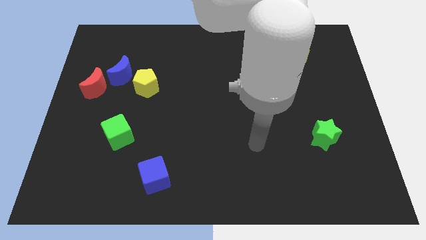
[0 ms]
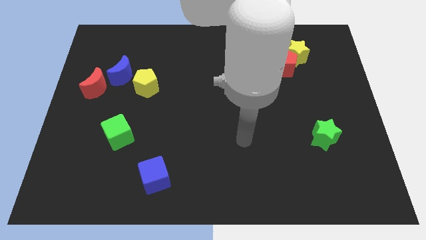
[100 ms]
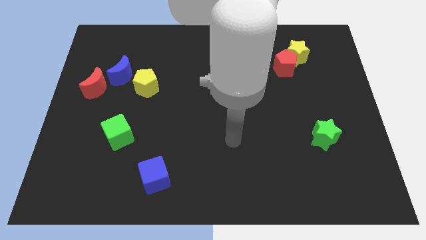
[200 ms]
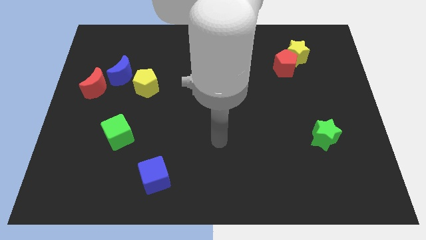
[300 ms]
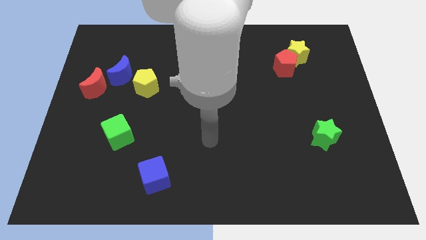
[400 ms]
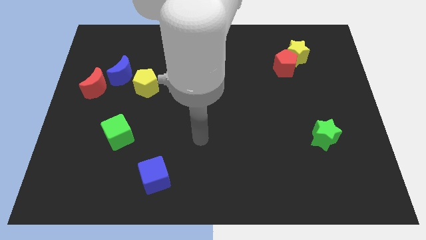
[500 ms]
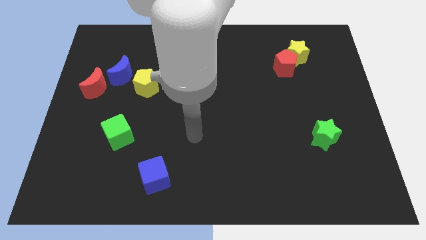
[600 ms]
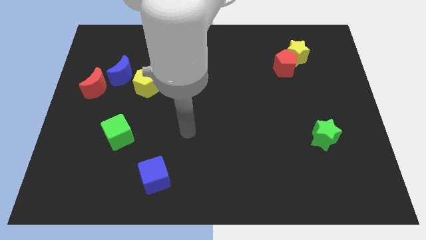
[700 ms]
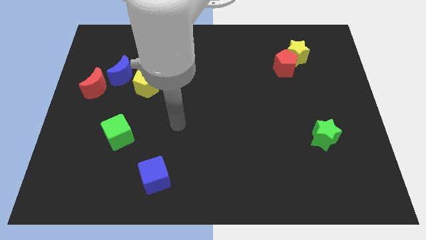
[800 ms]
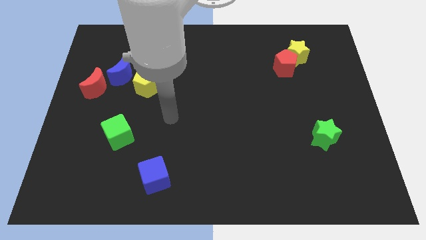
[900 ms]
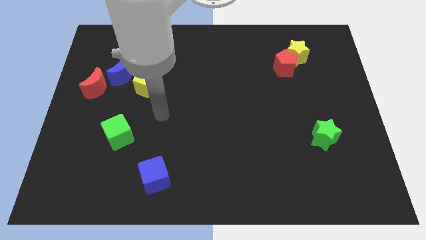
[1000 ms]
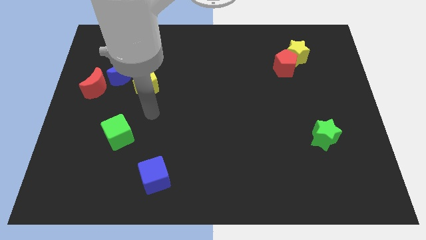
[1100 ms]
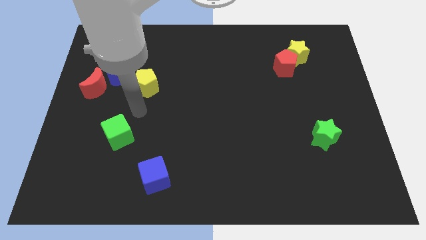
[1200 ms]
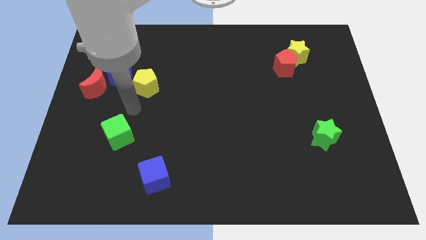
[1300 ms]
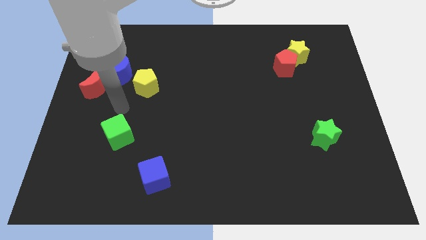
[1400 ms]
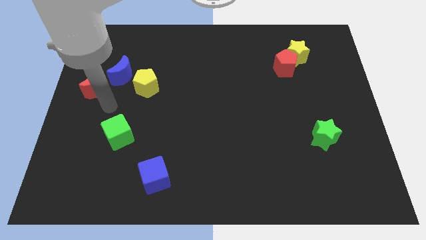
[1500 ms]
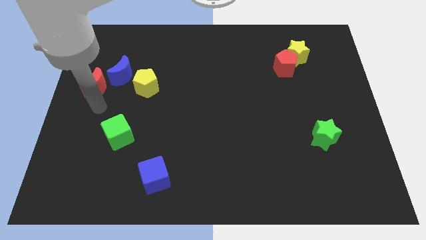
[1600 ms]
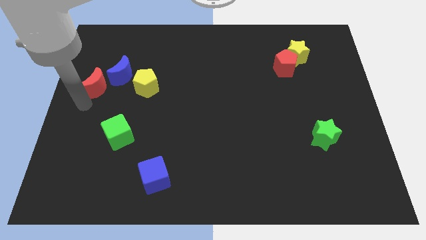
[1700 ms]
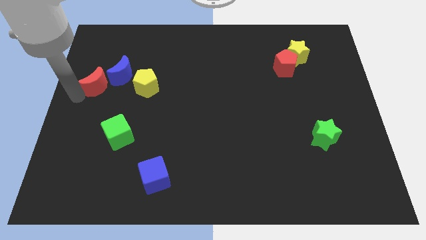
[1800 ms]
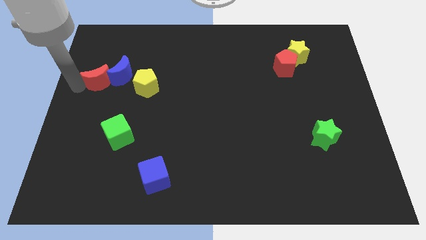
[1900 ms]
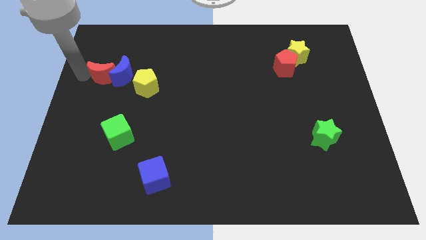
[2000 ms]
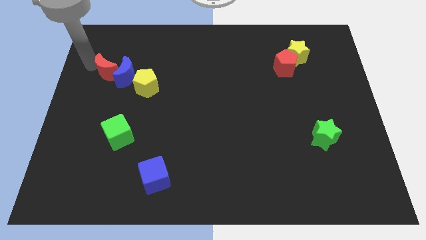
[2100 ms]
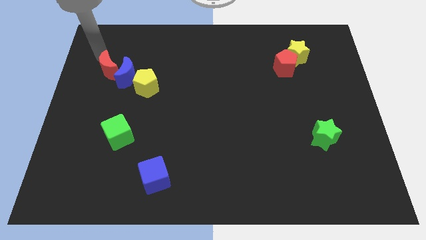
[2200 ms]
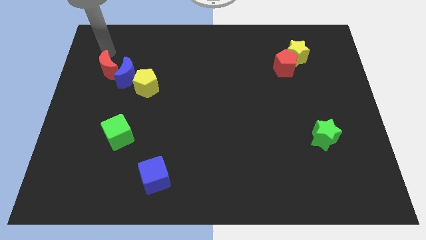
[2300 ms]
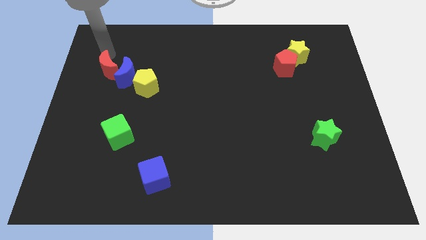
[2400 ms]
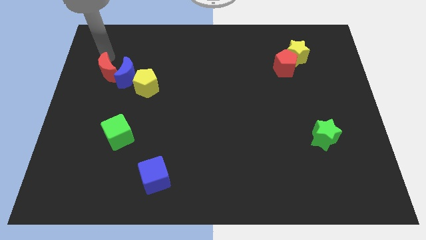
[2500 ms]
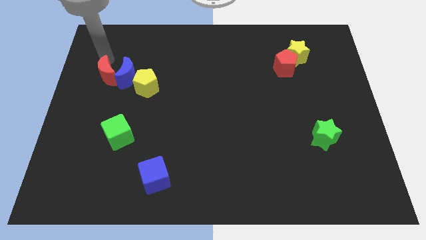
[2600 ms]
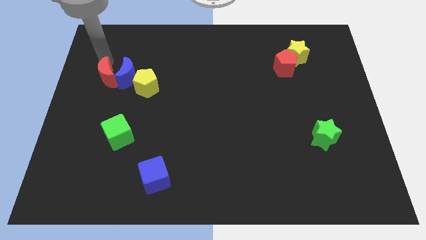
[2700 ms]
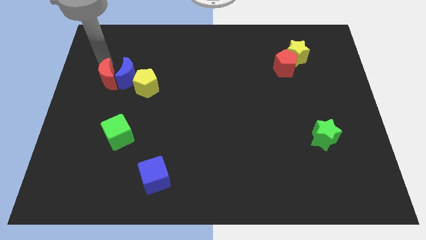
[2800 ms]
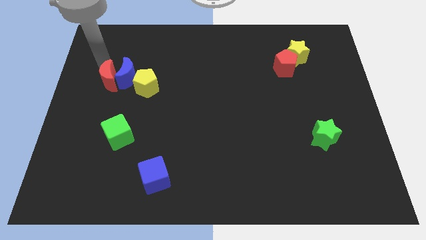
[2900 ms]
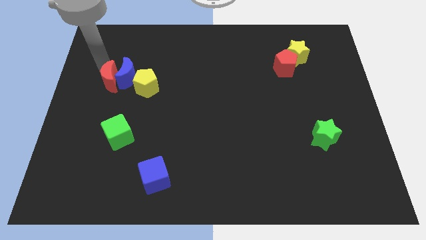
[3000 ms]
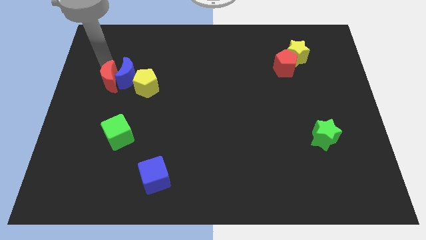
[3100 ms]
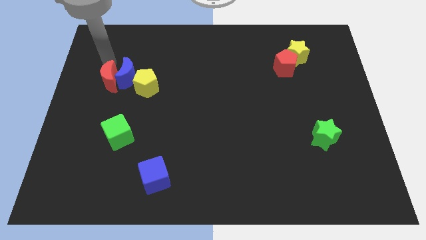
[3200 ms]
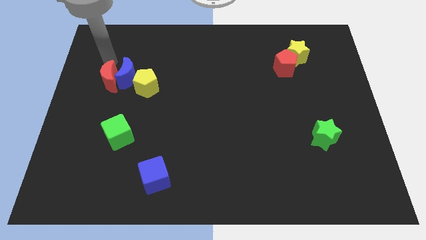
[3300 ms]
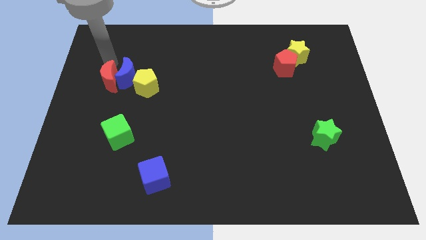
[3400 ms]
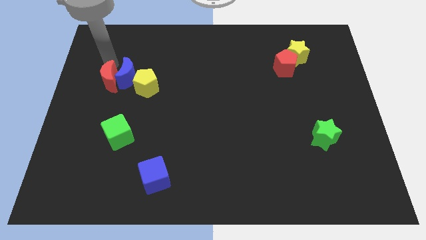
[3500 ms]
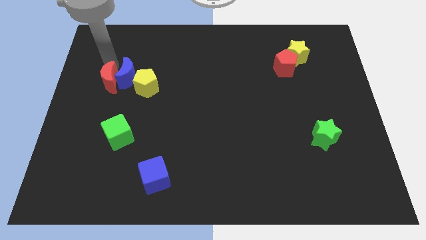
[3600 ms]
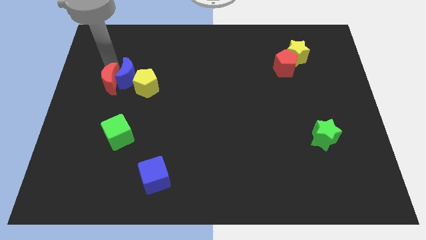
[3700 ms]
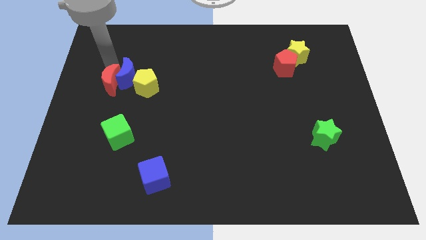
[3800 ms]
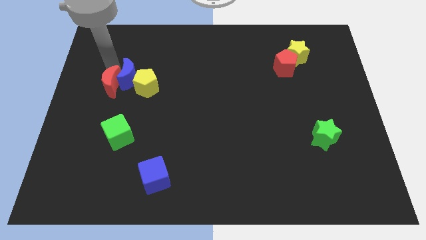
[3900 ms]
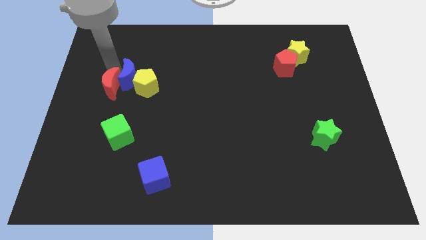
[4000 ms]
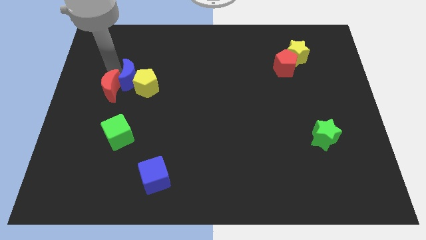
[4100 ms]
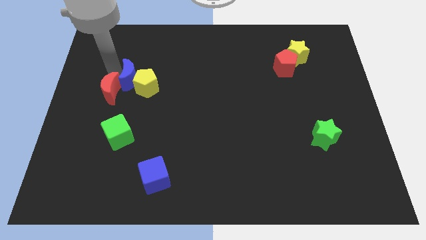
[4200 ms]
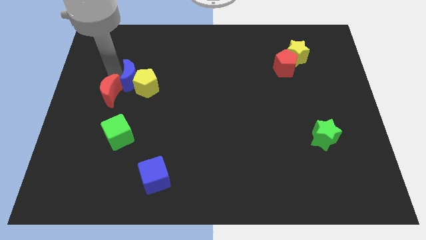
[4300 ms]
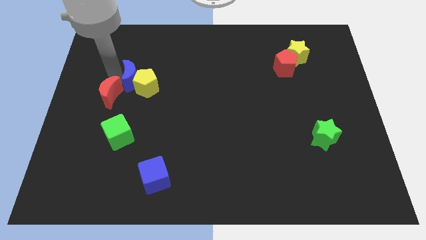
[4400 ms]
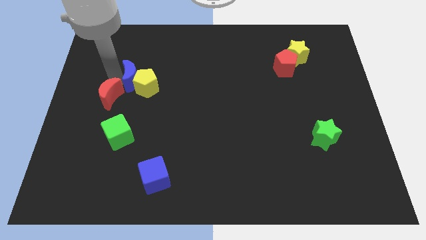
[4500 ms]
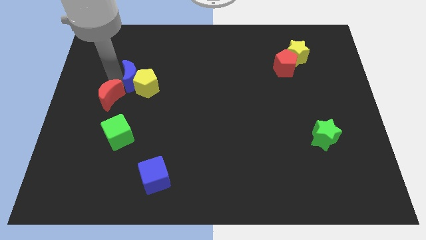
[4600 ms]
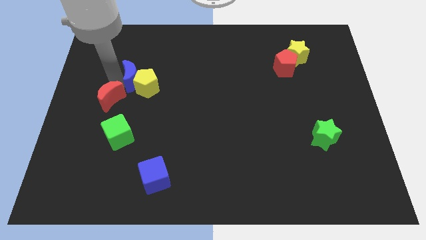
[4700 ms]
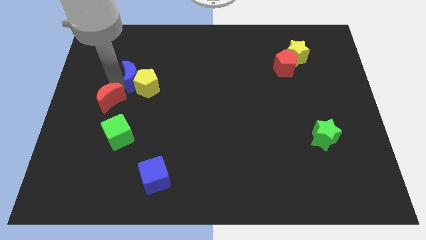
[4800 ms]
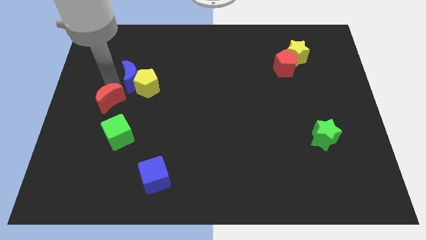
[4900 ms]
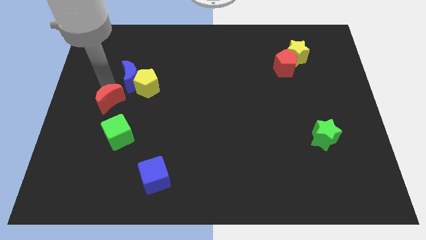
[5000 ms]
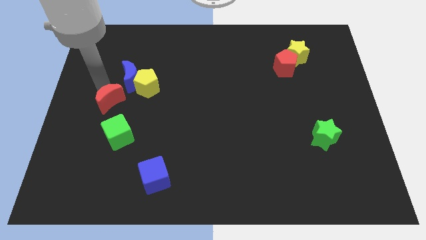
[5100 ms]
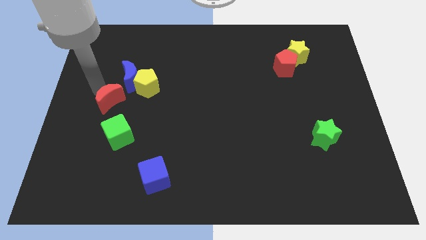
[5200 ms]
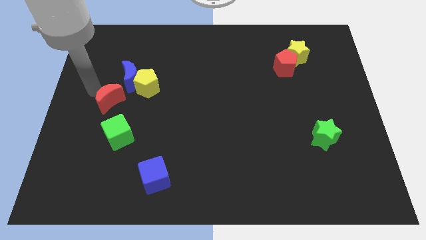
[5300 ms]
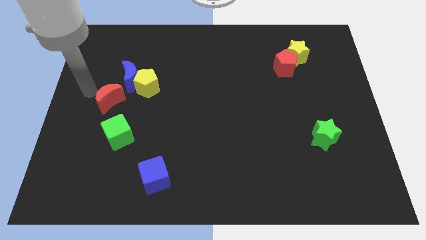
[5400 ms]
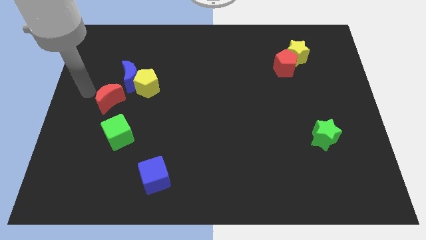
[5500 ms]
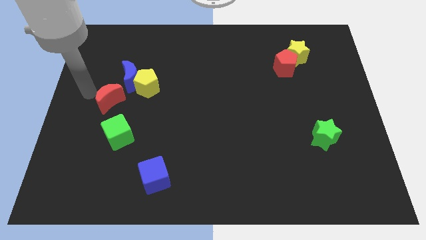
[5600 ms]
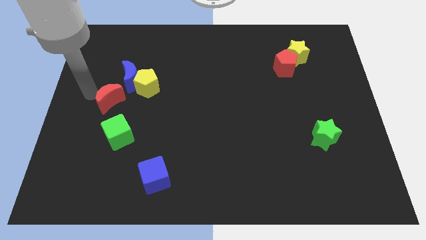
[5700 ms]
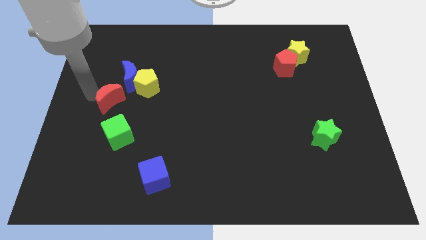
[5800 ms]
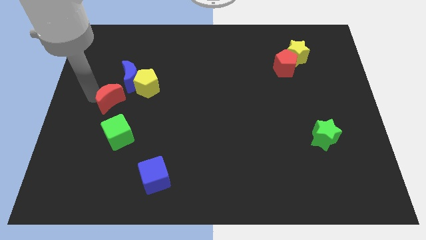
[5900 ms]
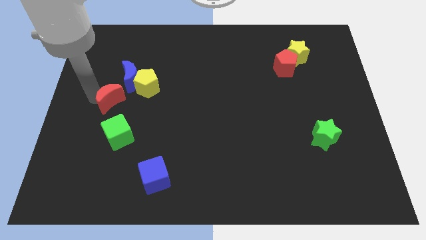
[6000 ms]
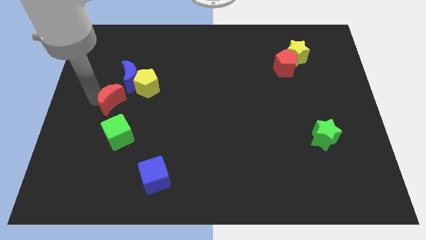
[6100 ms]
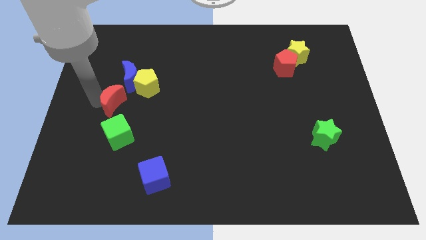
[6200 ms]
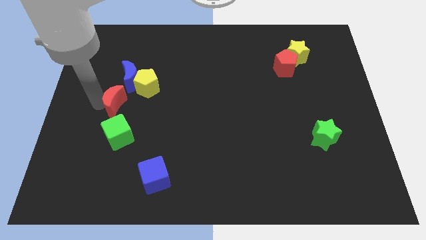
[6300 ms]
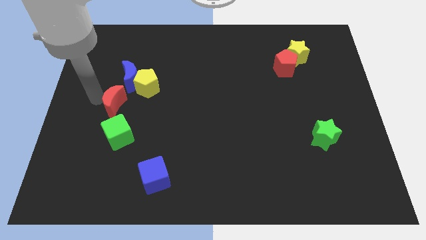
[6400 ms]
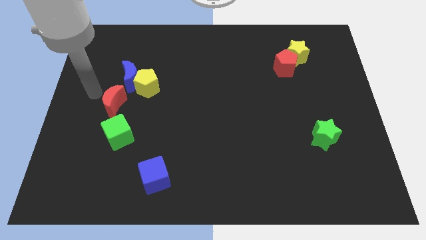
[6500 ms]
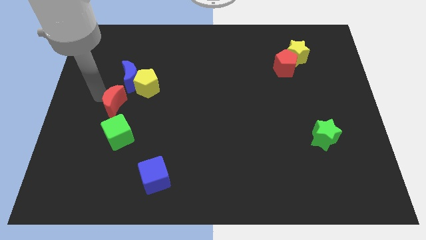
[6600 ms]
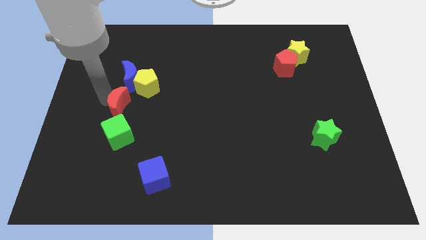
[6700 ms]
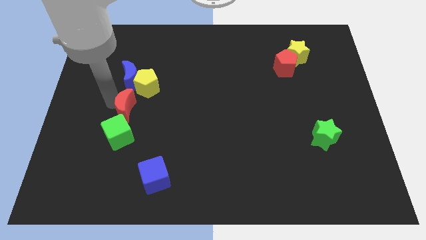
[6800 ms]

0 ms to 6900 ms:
push the red moon to the bottom side of the yellow pentagon

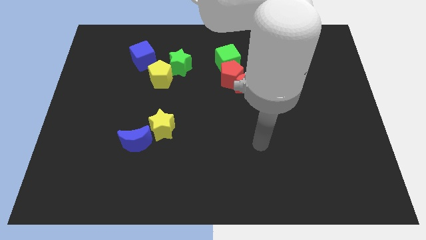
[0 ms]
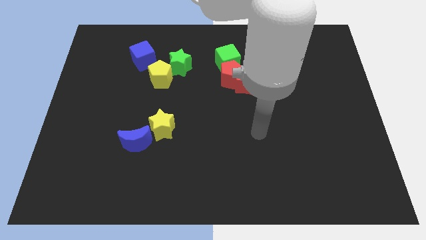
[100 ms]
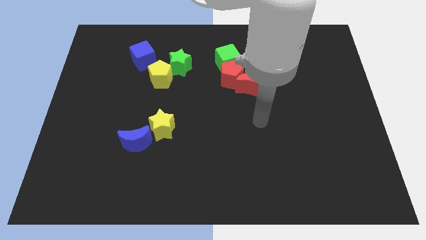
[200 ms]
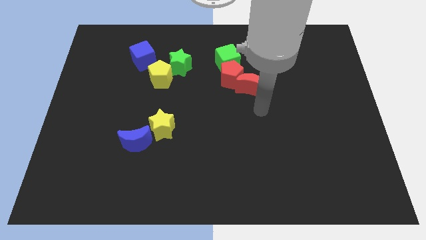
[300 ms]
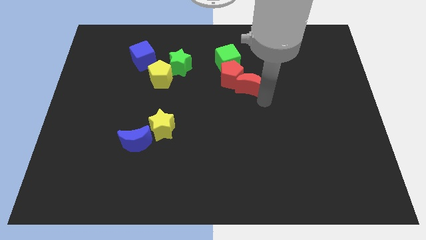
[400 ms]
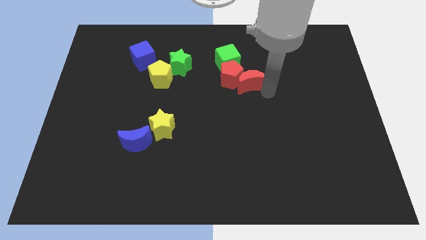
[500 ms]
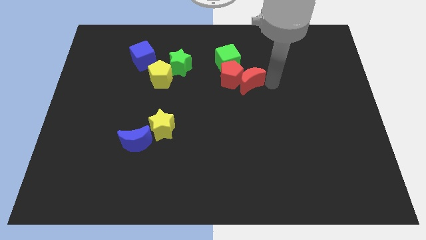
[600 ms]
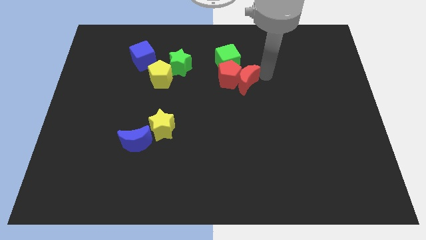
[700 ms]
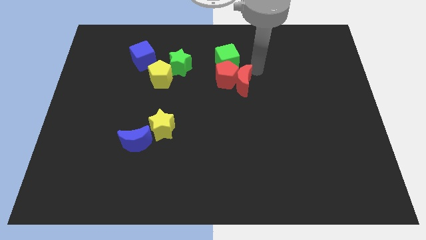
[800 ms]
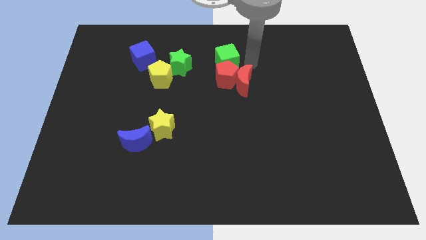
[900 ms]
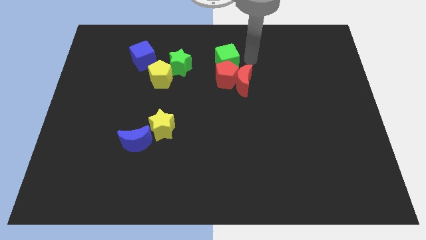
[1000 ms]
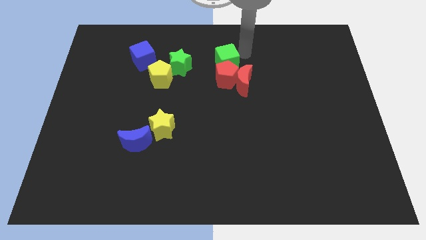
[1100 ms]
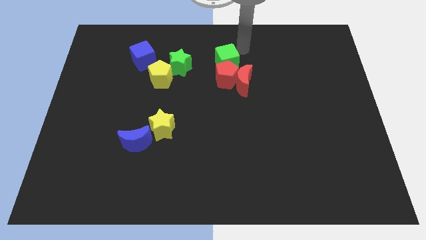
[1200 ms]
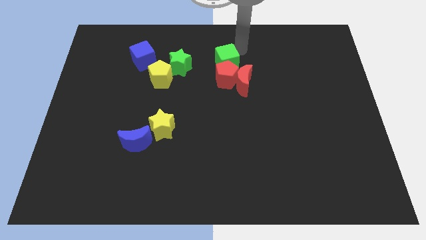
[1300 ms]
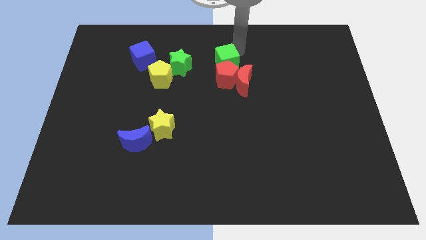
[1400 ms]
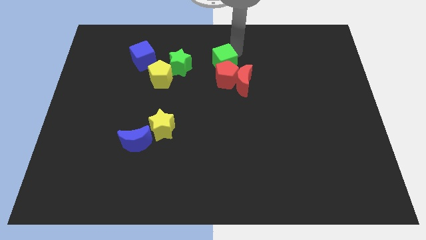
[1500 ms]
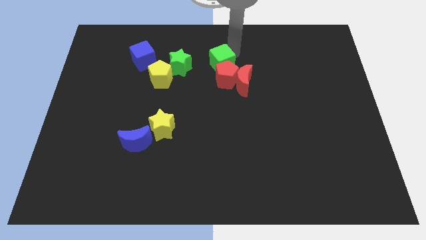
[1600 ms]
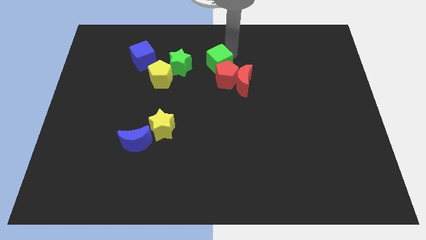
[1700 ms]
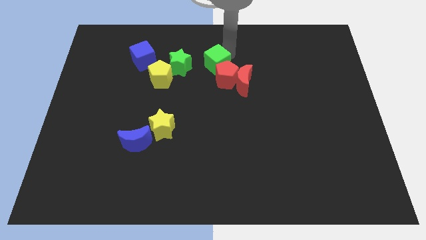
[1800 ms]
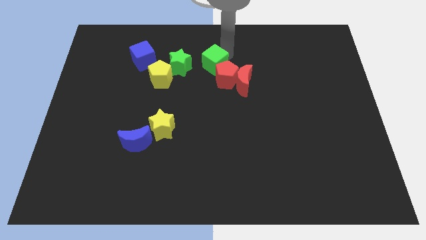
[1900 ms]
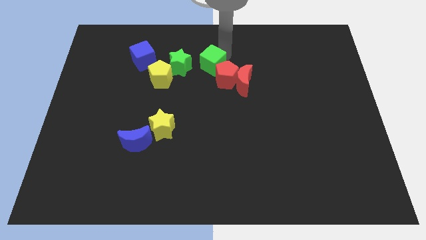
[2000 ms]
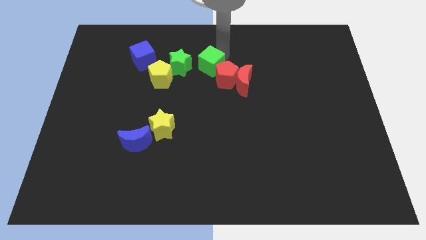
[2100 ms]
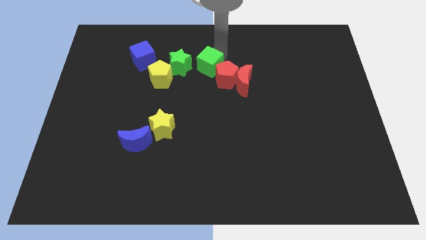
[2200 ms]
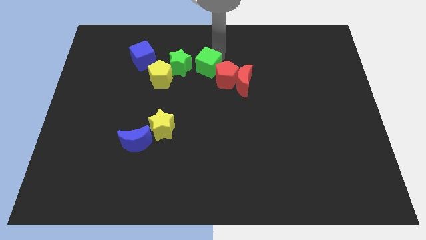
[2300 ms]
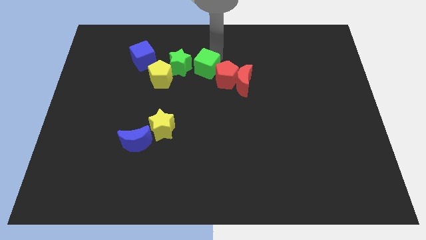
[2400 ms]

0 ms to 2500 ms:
put the green cube to the bottom right side of the green star
